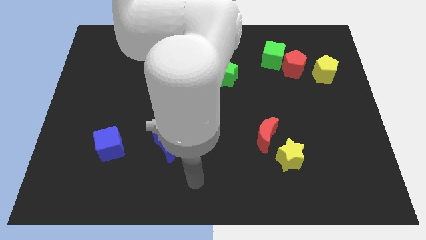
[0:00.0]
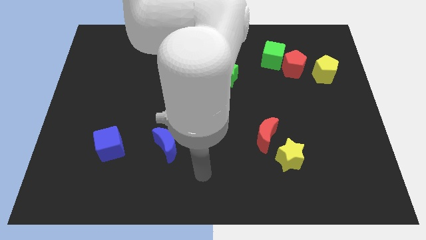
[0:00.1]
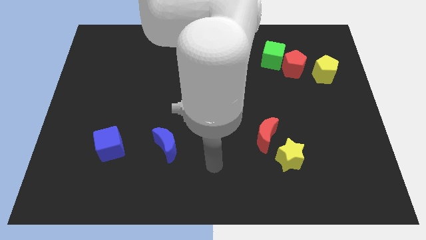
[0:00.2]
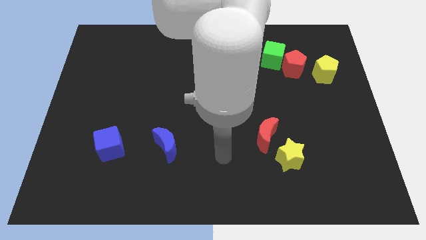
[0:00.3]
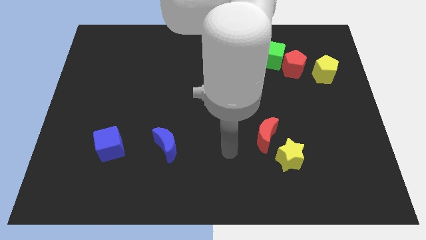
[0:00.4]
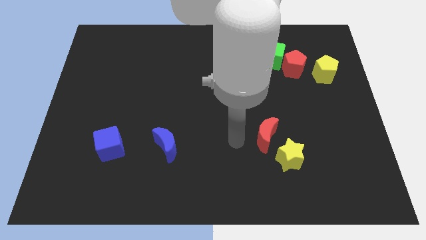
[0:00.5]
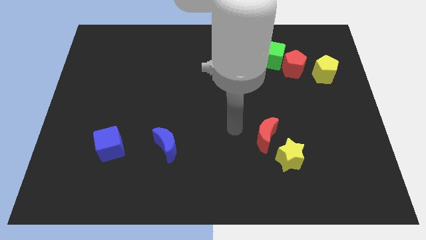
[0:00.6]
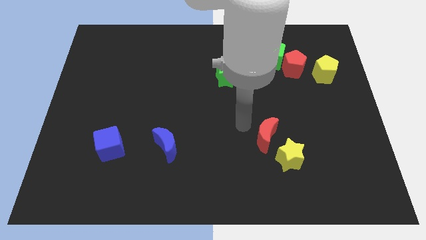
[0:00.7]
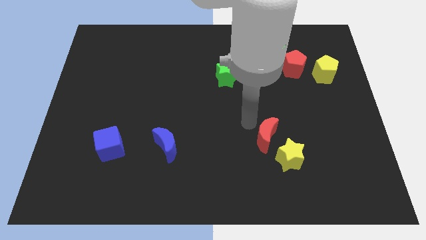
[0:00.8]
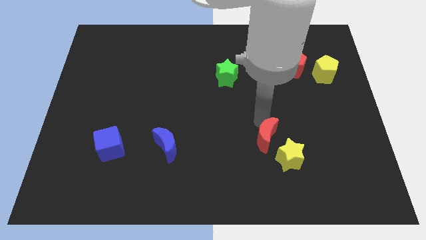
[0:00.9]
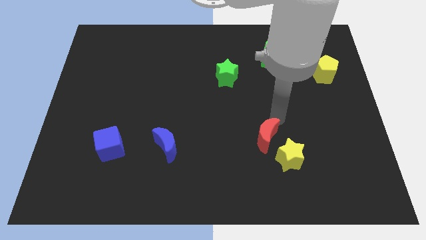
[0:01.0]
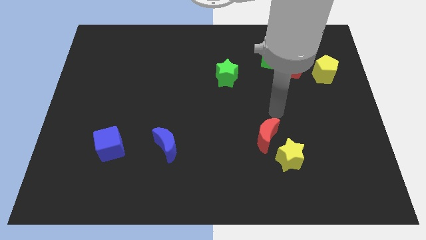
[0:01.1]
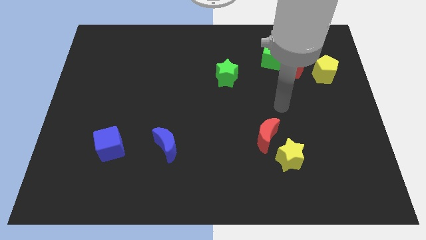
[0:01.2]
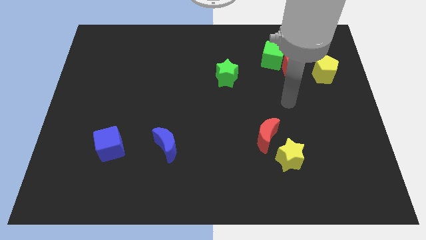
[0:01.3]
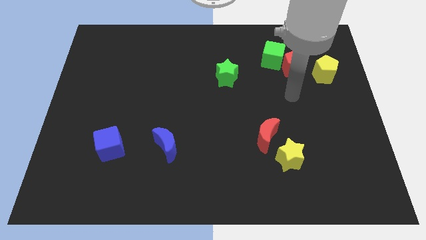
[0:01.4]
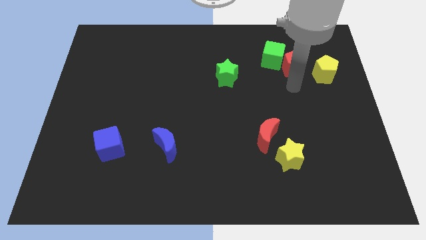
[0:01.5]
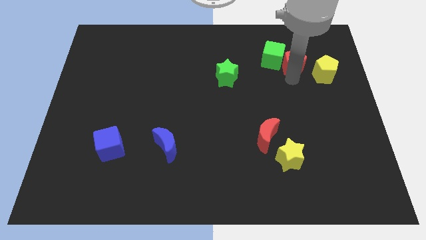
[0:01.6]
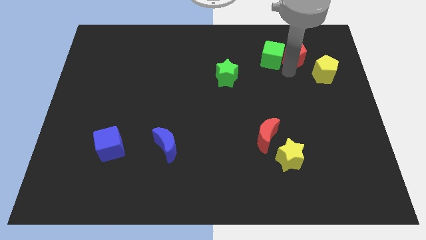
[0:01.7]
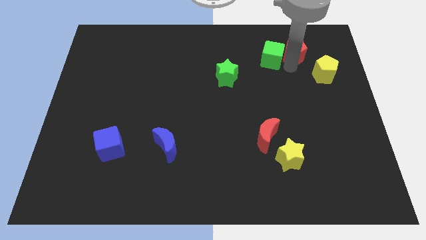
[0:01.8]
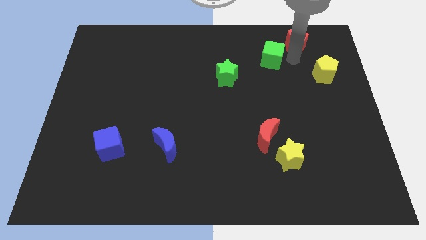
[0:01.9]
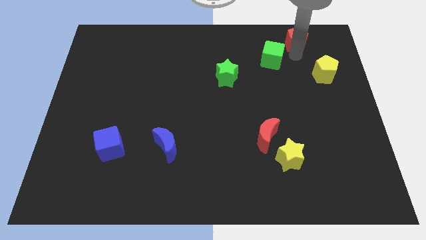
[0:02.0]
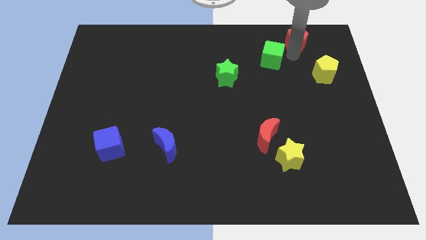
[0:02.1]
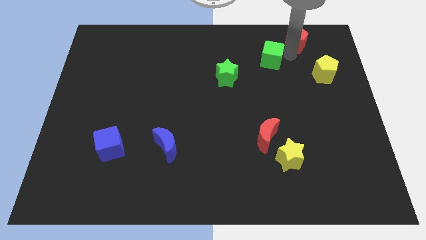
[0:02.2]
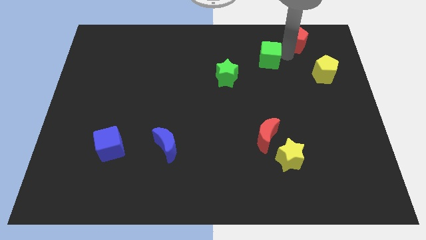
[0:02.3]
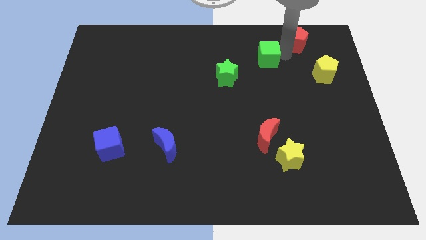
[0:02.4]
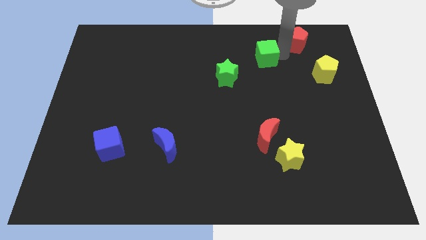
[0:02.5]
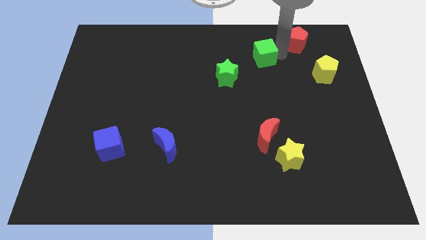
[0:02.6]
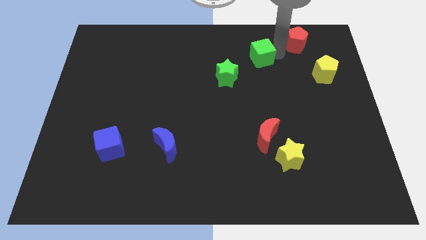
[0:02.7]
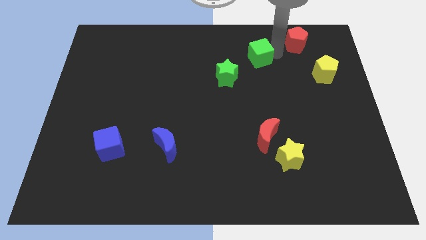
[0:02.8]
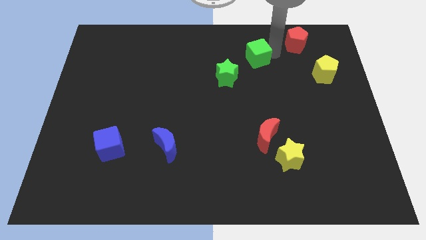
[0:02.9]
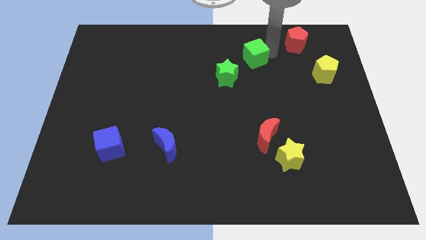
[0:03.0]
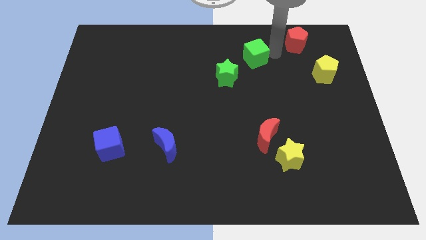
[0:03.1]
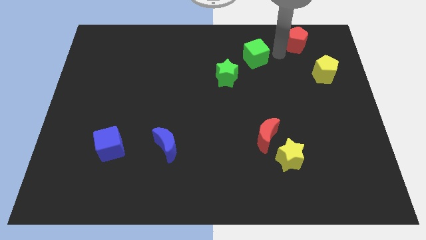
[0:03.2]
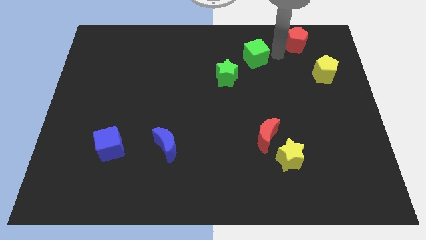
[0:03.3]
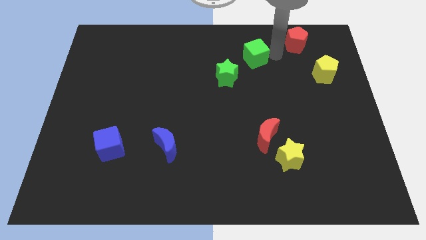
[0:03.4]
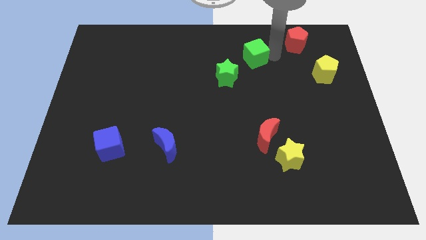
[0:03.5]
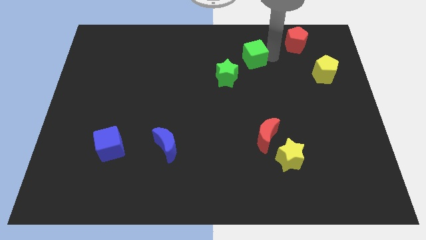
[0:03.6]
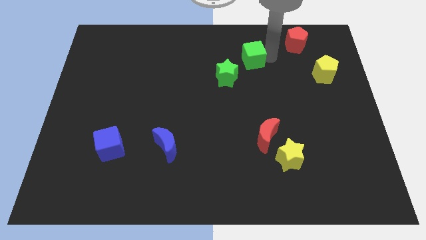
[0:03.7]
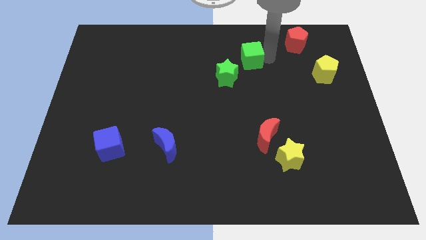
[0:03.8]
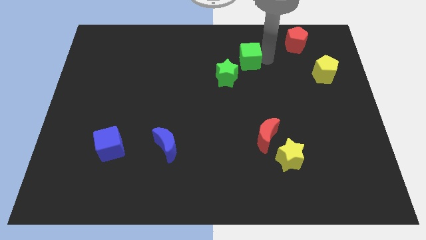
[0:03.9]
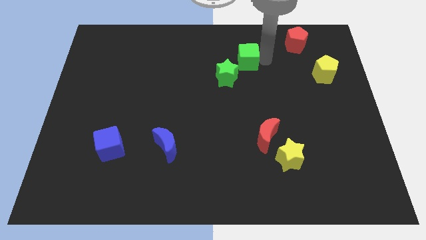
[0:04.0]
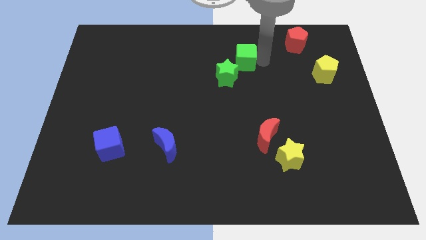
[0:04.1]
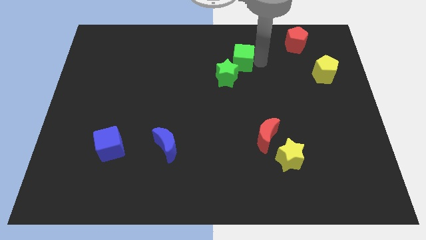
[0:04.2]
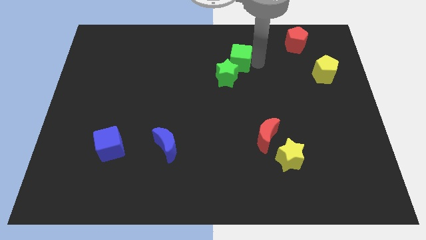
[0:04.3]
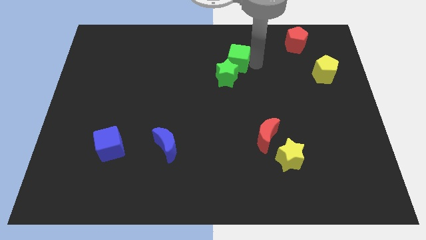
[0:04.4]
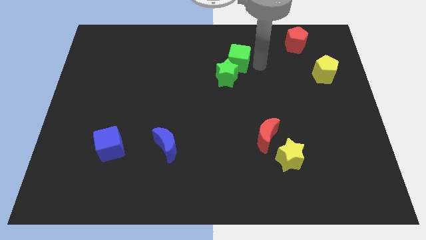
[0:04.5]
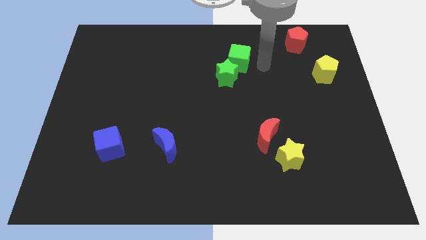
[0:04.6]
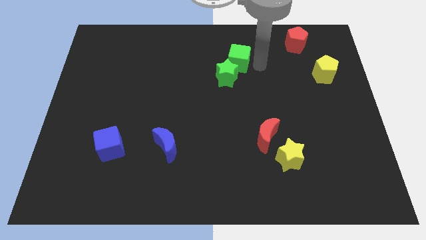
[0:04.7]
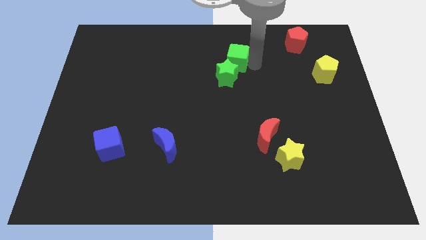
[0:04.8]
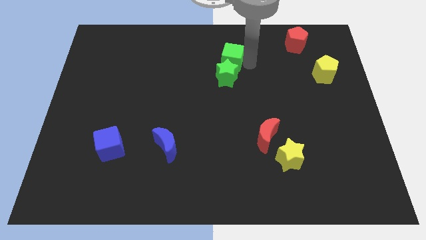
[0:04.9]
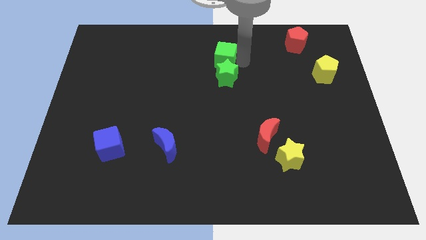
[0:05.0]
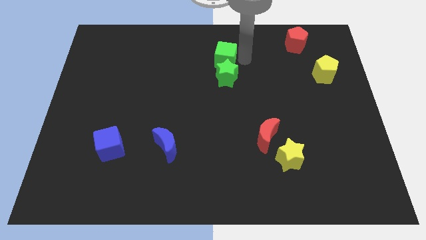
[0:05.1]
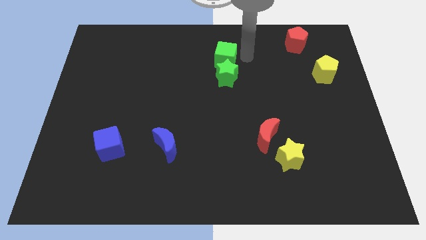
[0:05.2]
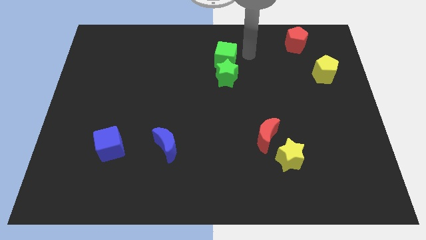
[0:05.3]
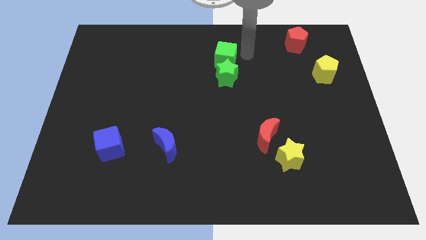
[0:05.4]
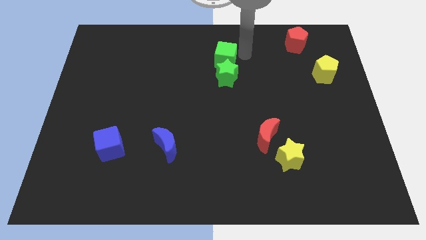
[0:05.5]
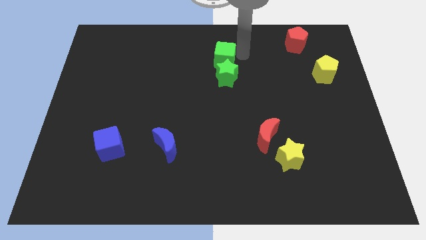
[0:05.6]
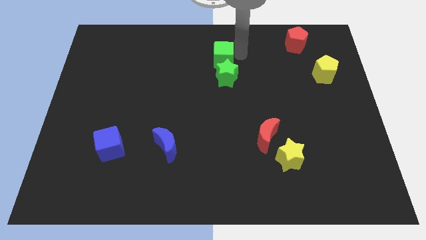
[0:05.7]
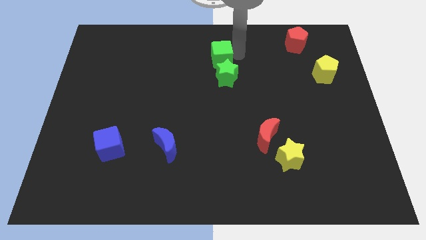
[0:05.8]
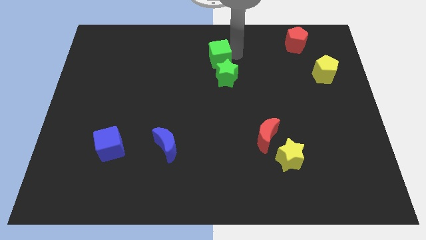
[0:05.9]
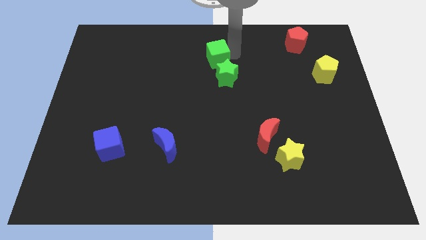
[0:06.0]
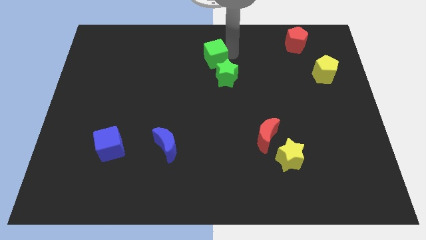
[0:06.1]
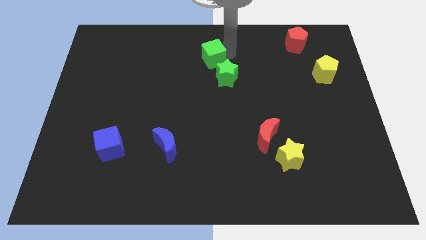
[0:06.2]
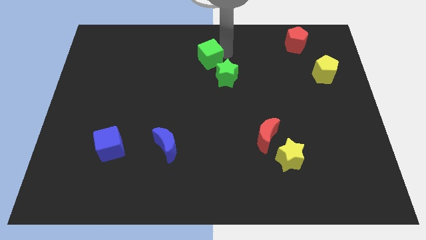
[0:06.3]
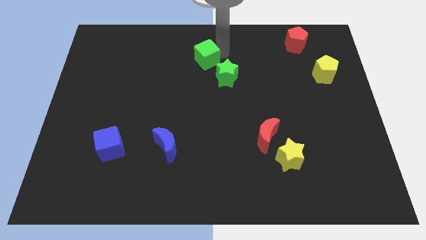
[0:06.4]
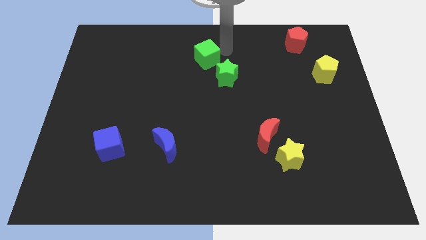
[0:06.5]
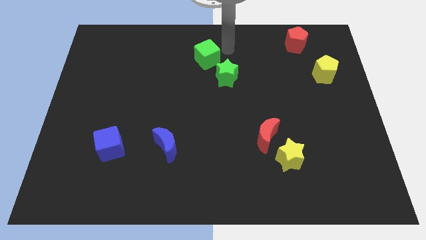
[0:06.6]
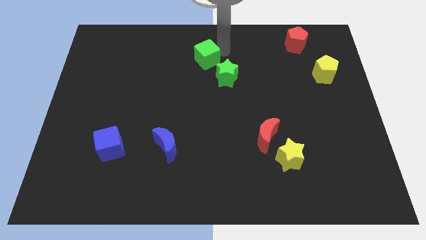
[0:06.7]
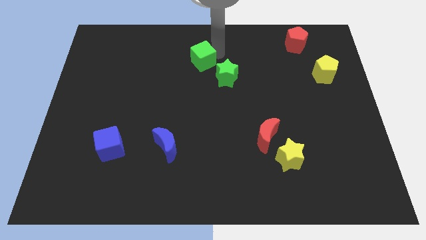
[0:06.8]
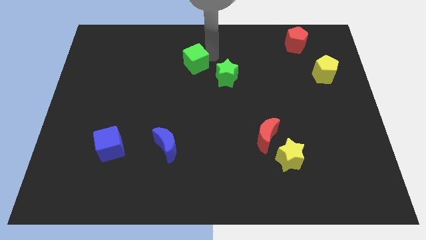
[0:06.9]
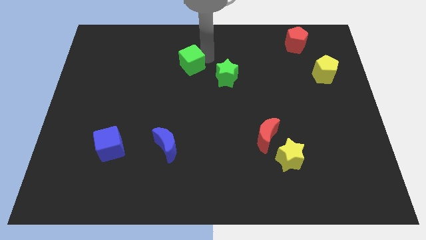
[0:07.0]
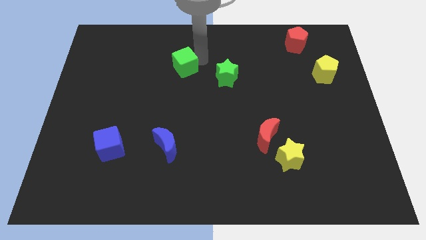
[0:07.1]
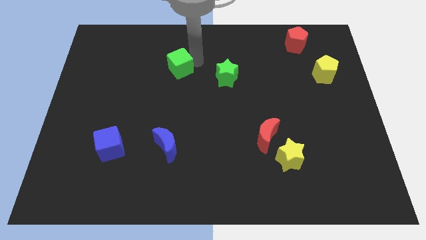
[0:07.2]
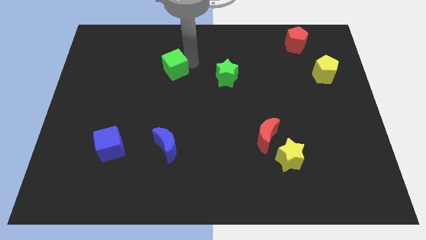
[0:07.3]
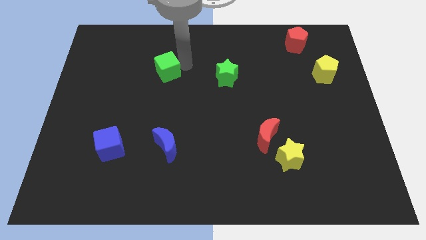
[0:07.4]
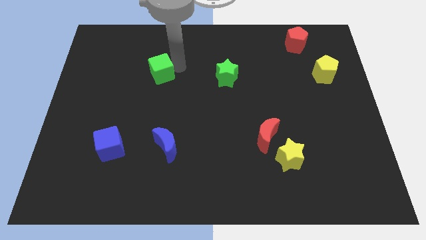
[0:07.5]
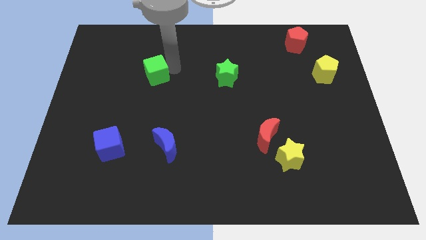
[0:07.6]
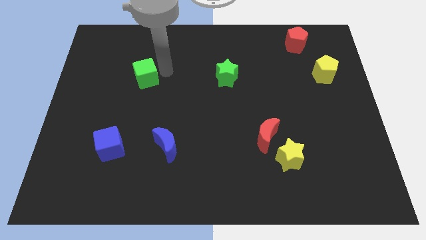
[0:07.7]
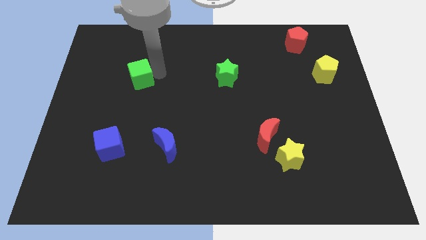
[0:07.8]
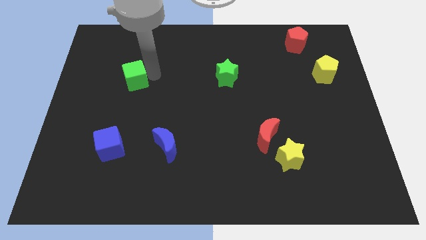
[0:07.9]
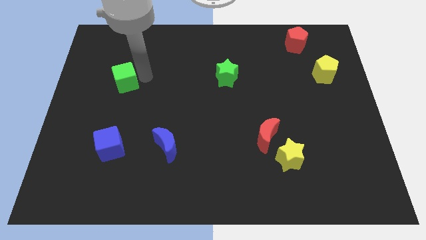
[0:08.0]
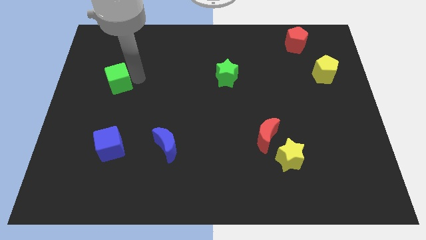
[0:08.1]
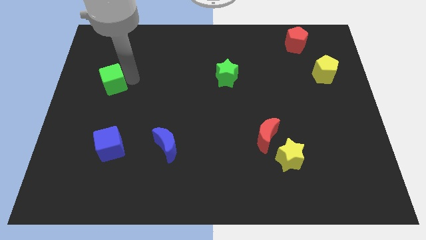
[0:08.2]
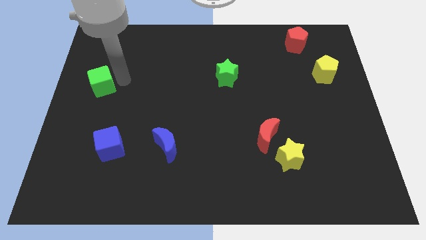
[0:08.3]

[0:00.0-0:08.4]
move the green cube to the left side
